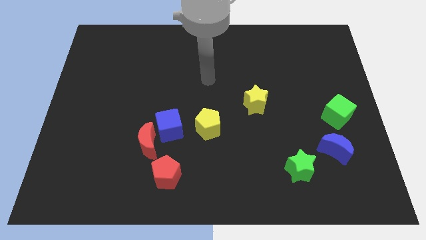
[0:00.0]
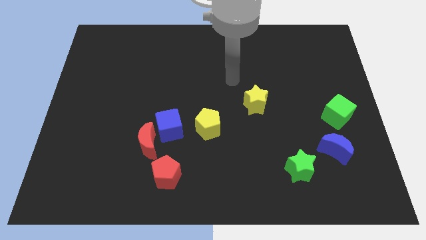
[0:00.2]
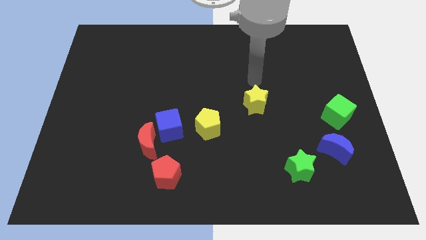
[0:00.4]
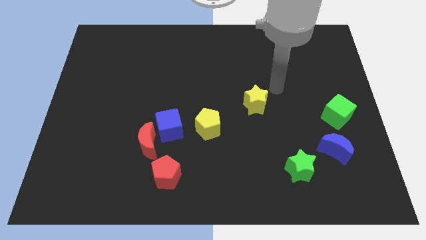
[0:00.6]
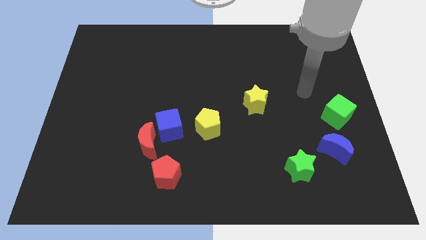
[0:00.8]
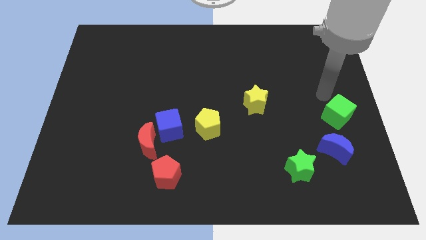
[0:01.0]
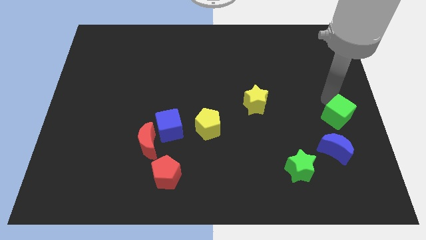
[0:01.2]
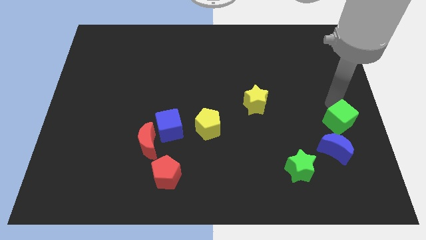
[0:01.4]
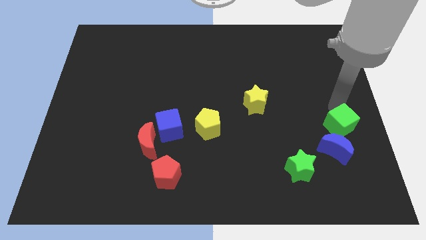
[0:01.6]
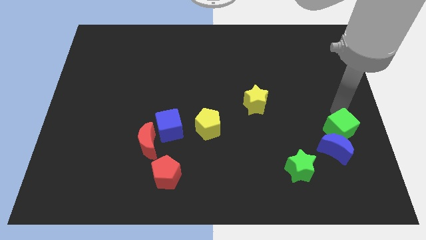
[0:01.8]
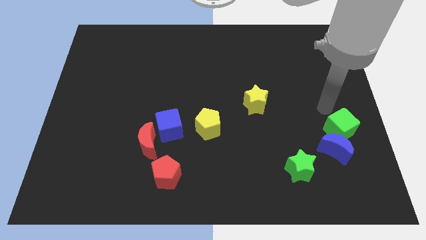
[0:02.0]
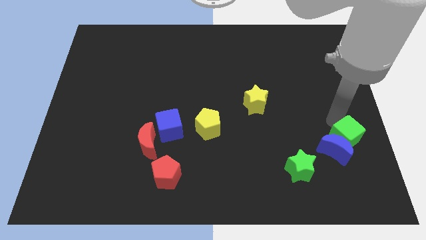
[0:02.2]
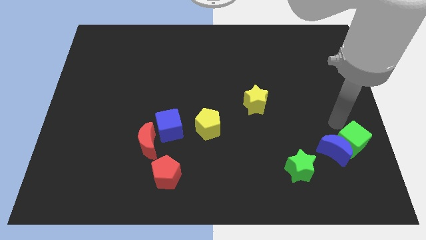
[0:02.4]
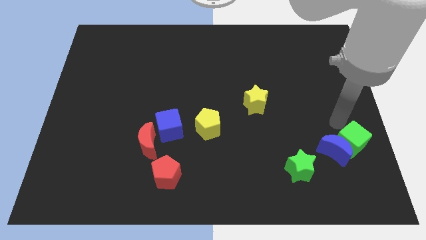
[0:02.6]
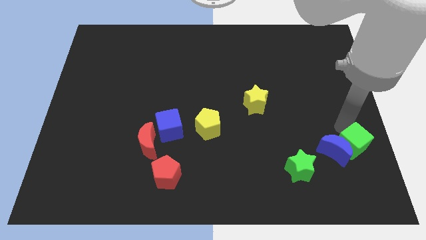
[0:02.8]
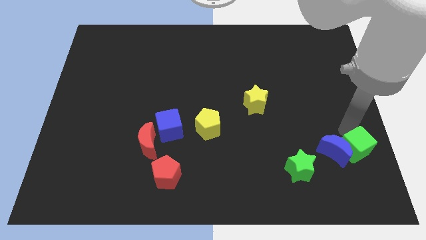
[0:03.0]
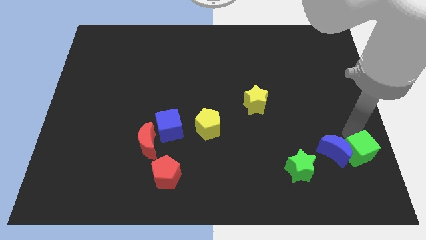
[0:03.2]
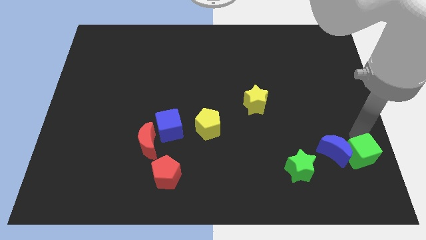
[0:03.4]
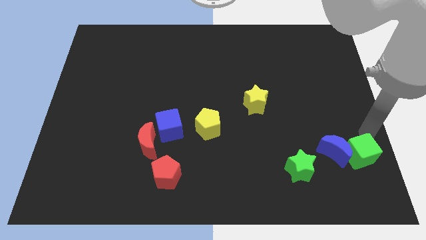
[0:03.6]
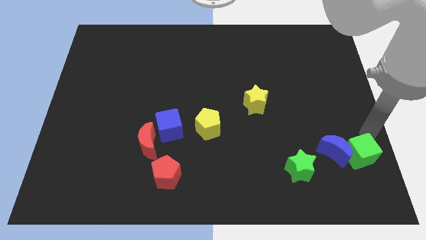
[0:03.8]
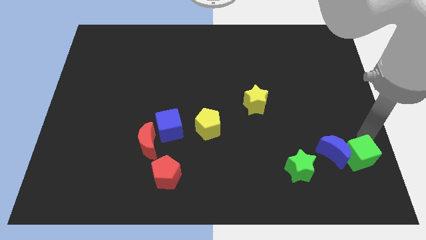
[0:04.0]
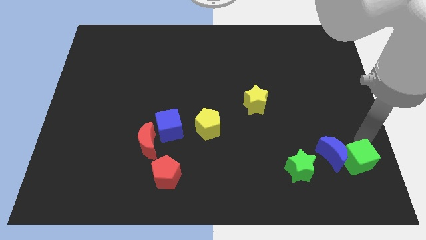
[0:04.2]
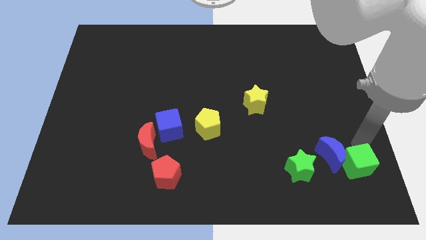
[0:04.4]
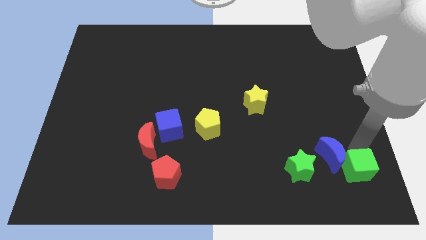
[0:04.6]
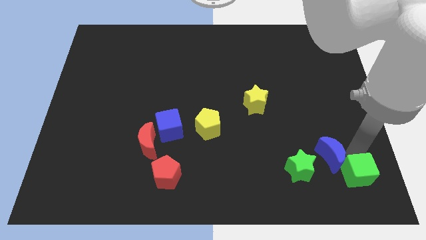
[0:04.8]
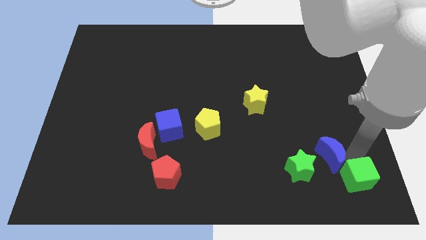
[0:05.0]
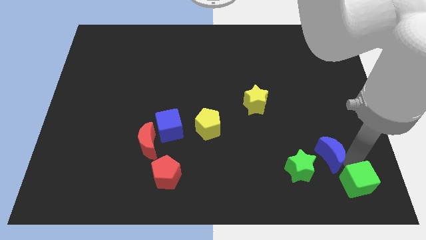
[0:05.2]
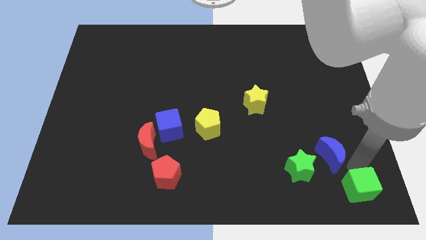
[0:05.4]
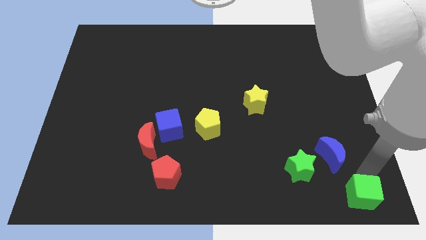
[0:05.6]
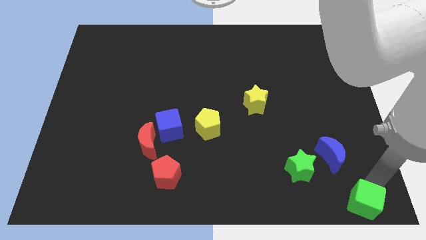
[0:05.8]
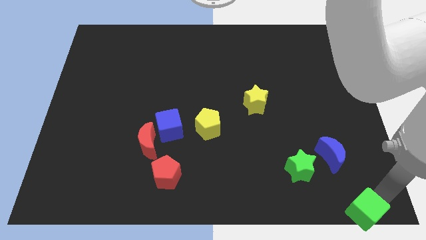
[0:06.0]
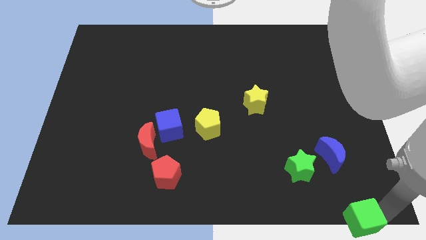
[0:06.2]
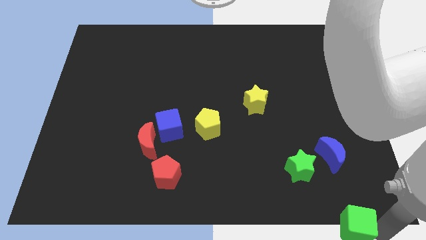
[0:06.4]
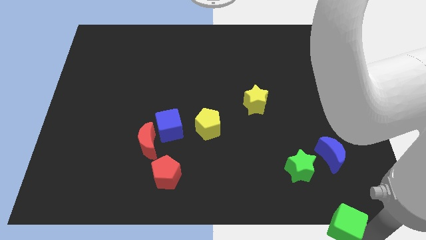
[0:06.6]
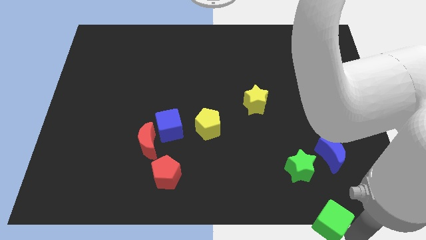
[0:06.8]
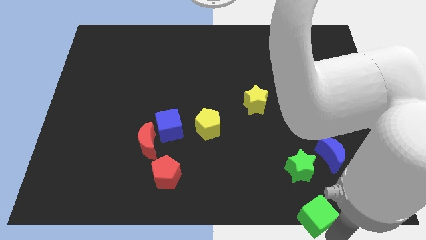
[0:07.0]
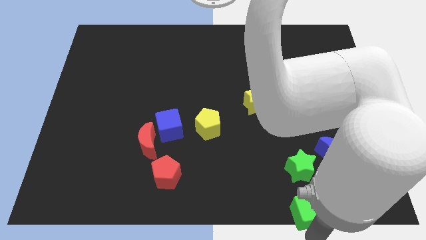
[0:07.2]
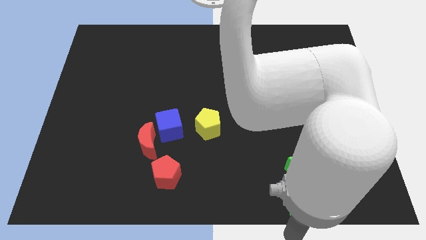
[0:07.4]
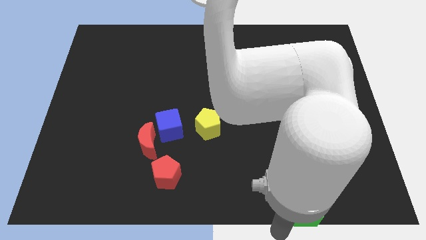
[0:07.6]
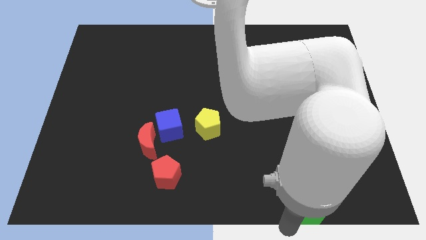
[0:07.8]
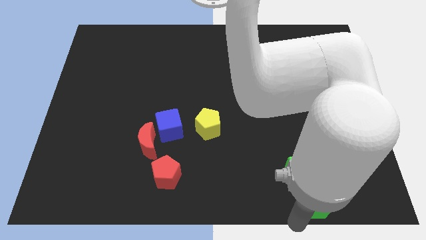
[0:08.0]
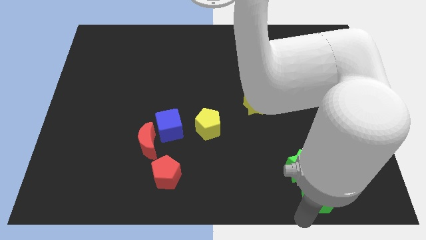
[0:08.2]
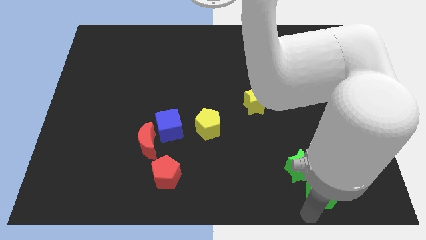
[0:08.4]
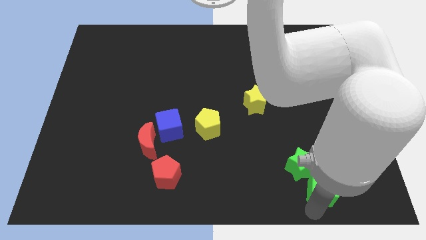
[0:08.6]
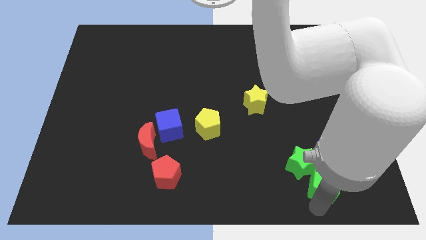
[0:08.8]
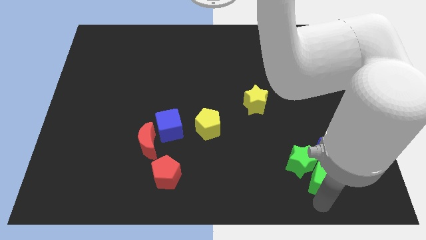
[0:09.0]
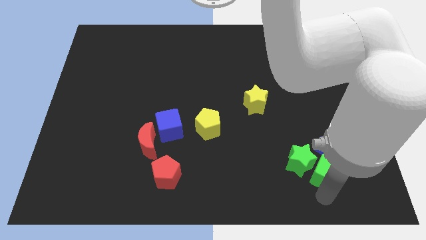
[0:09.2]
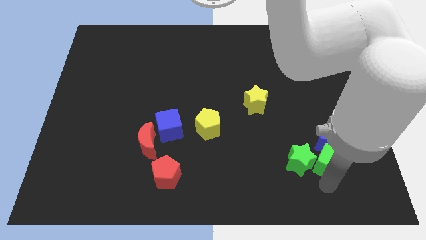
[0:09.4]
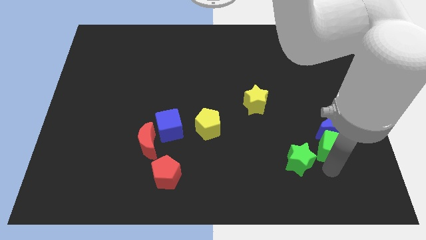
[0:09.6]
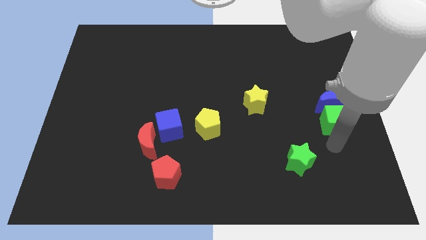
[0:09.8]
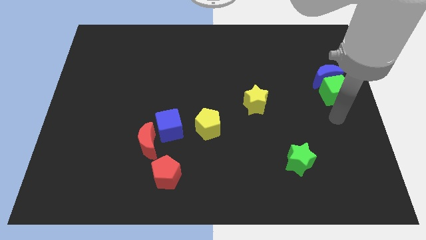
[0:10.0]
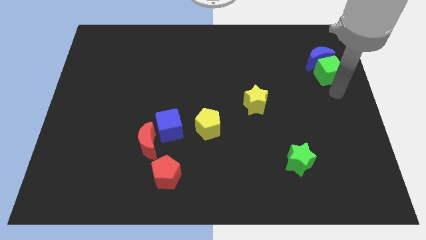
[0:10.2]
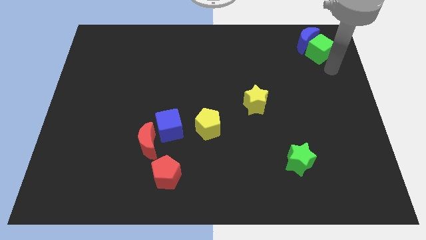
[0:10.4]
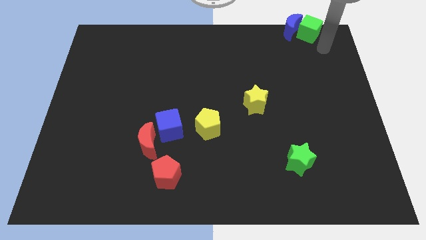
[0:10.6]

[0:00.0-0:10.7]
move the green cube to the top right

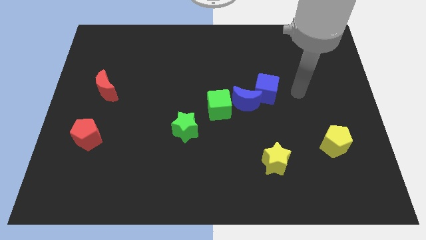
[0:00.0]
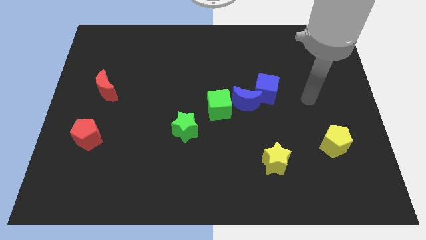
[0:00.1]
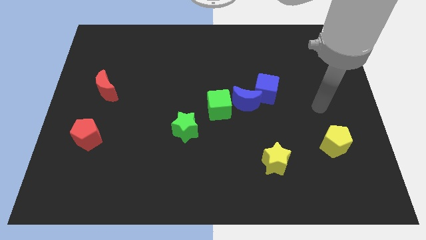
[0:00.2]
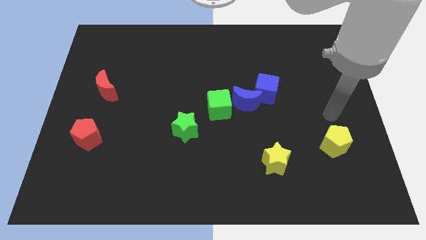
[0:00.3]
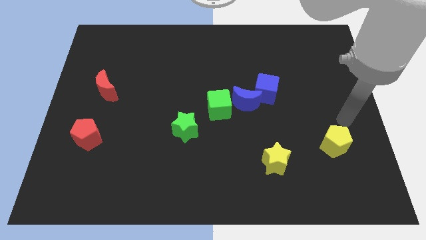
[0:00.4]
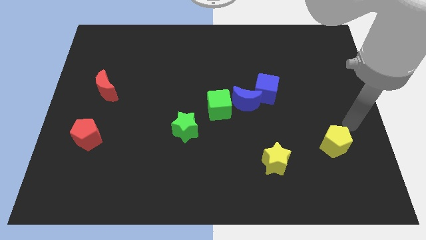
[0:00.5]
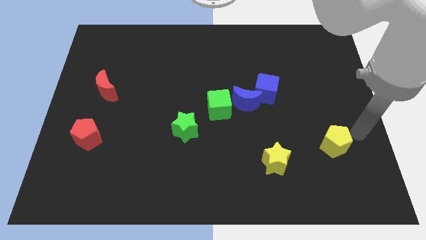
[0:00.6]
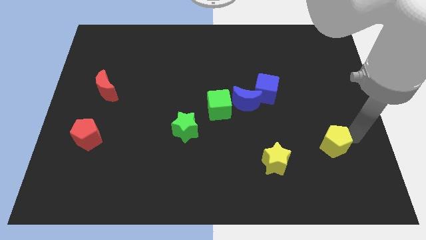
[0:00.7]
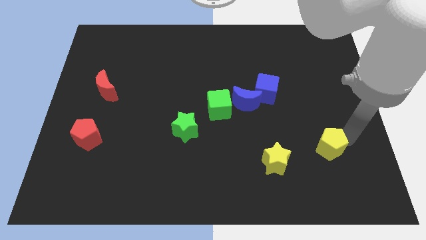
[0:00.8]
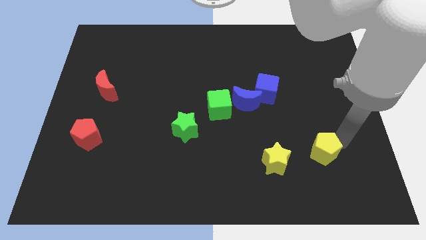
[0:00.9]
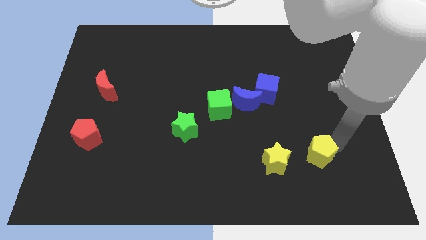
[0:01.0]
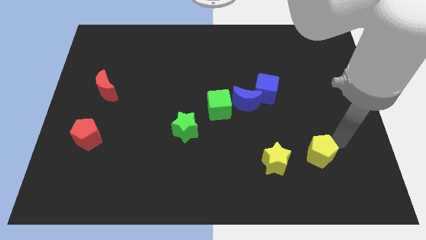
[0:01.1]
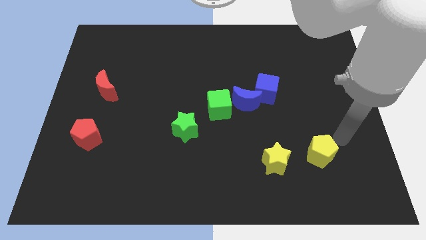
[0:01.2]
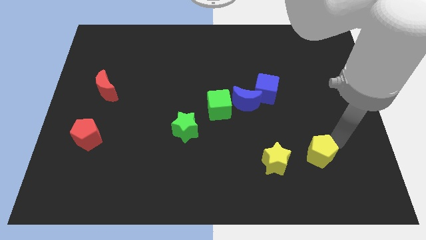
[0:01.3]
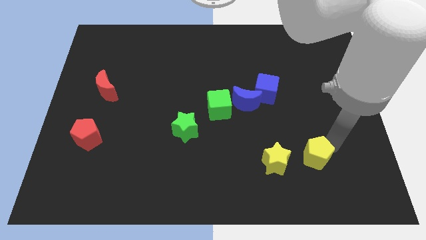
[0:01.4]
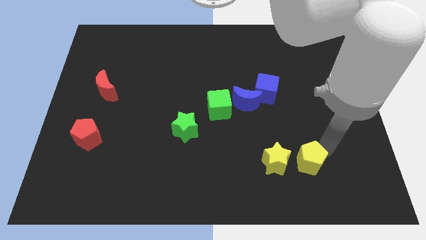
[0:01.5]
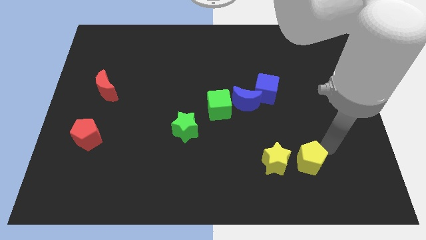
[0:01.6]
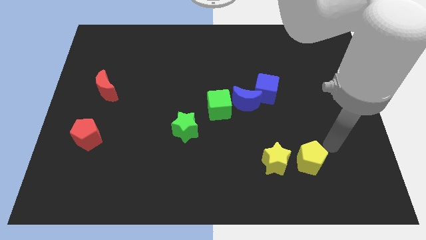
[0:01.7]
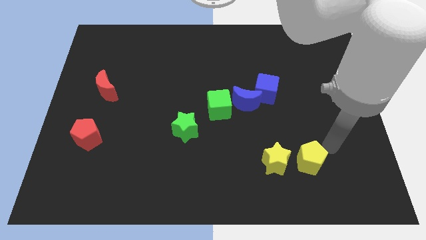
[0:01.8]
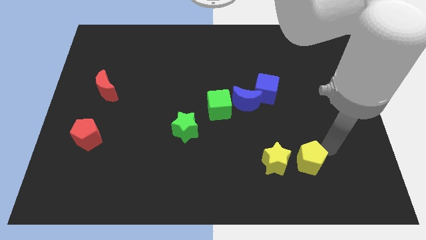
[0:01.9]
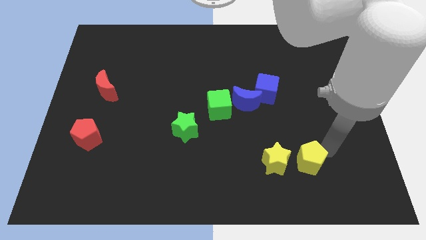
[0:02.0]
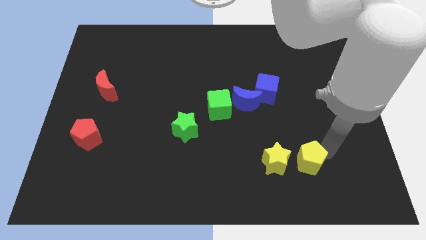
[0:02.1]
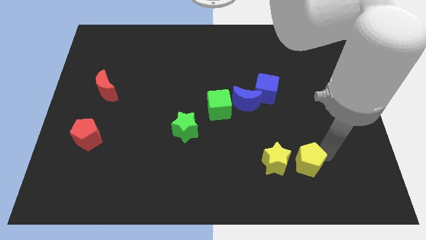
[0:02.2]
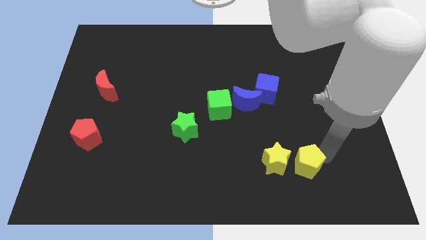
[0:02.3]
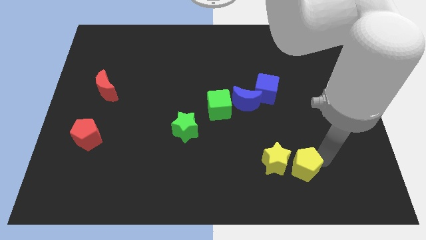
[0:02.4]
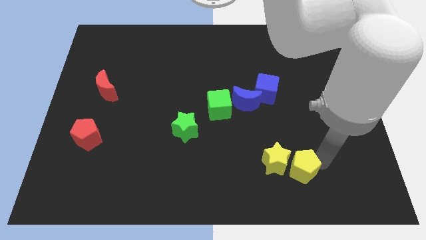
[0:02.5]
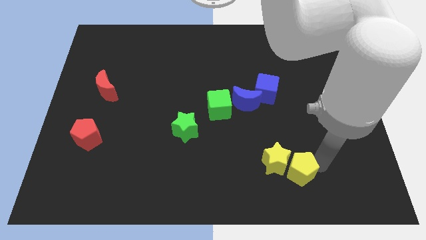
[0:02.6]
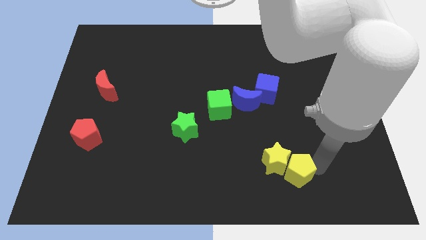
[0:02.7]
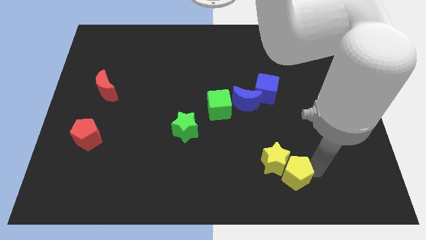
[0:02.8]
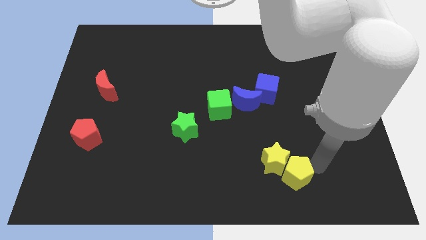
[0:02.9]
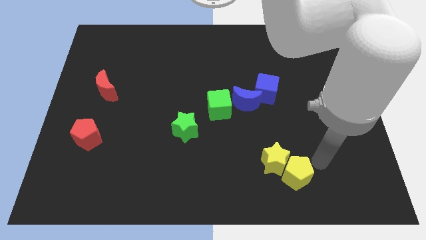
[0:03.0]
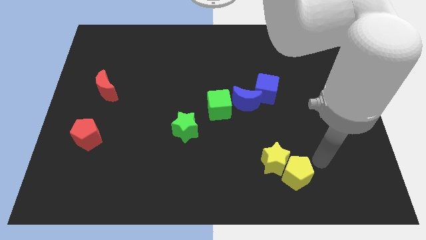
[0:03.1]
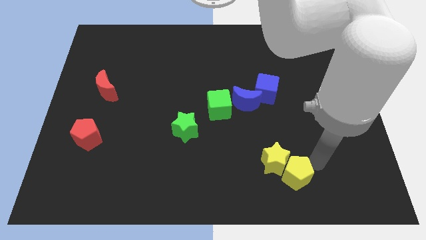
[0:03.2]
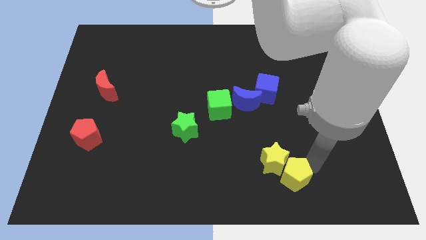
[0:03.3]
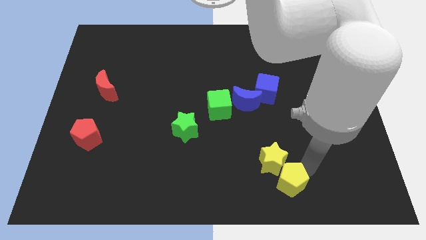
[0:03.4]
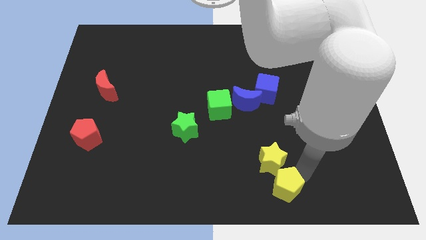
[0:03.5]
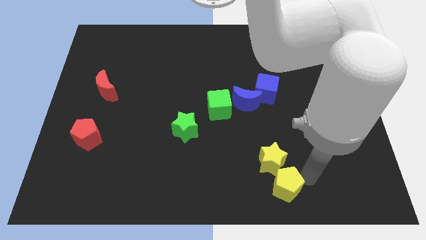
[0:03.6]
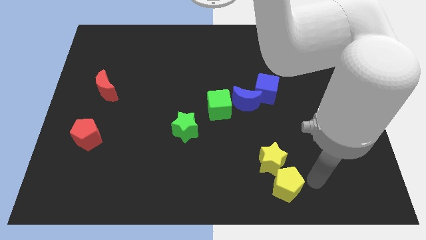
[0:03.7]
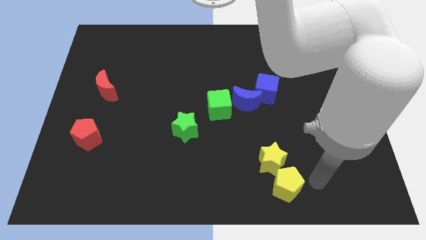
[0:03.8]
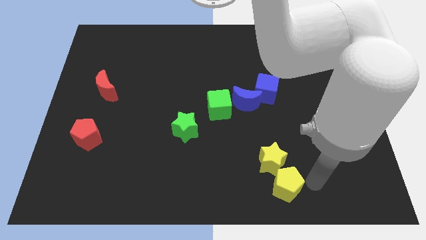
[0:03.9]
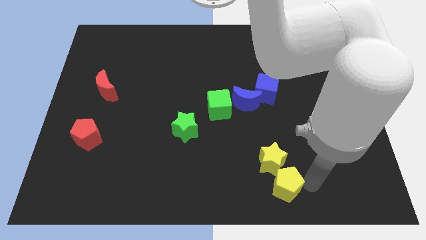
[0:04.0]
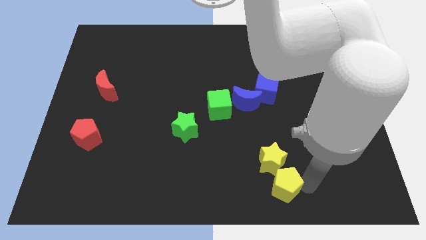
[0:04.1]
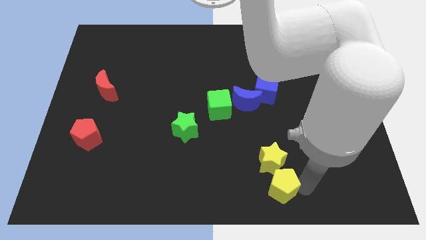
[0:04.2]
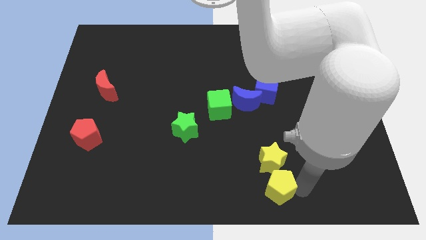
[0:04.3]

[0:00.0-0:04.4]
move the yellow pentagon to the bottom side
